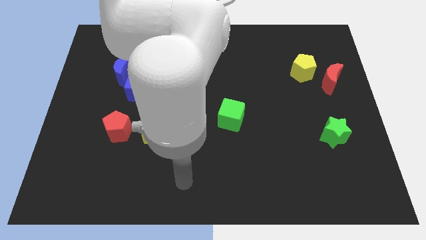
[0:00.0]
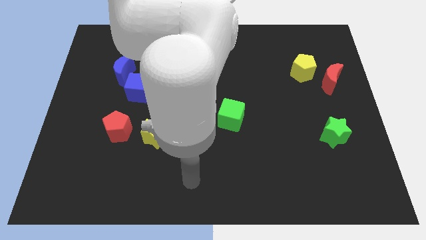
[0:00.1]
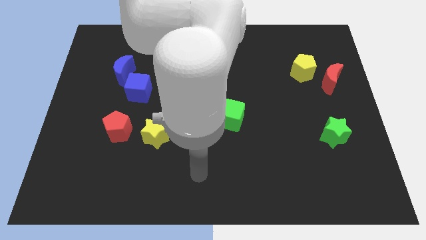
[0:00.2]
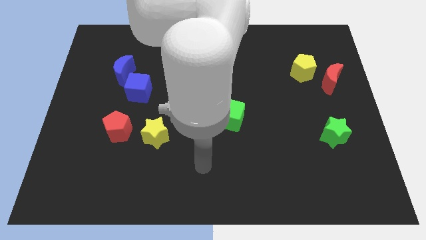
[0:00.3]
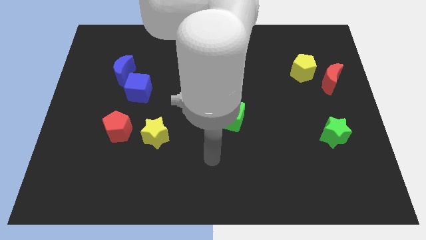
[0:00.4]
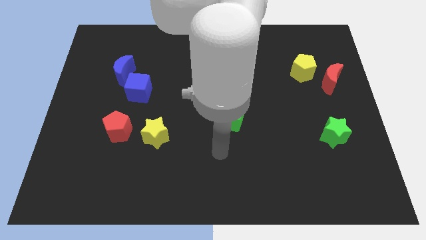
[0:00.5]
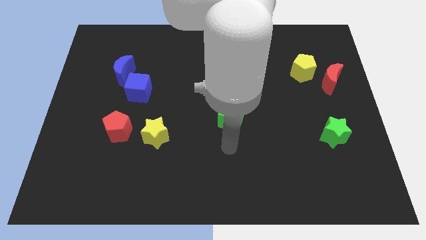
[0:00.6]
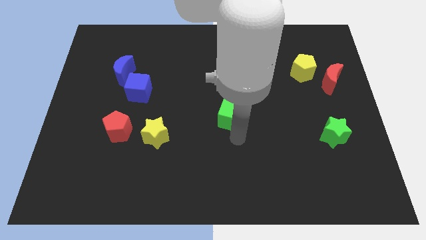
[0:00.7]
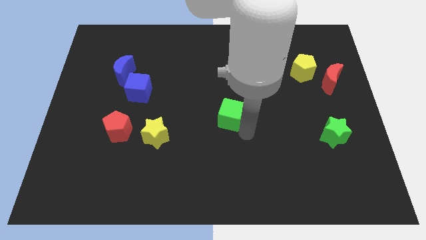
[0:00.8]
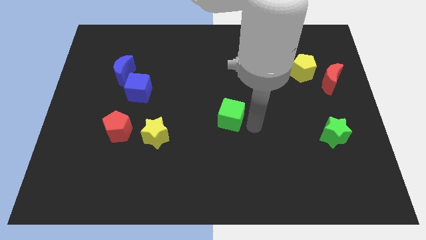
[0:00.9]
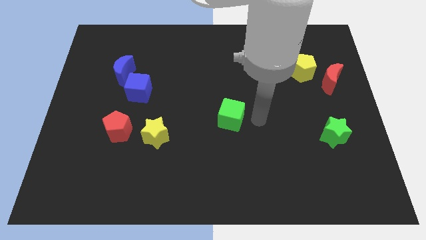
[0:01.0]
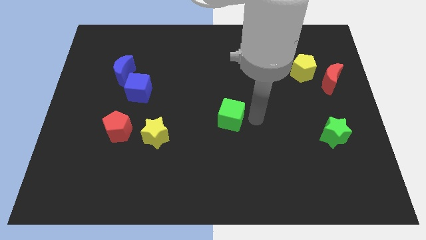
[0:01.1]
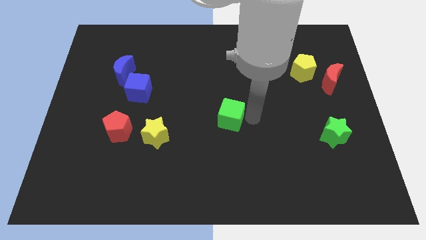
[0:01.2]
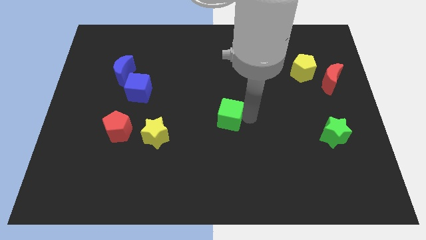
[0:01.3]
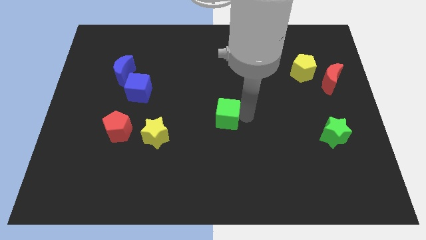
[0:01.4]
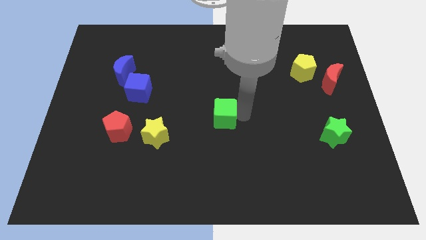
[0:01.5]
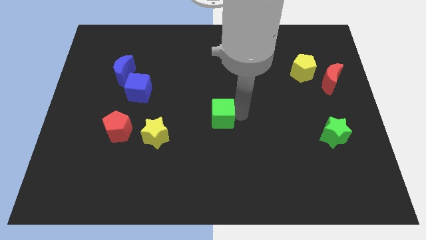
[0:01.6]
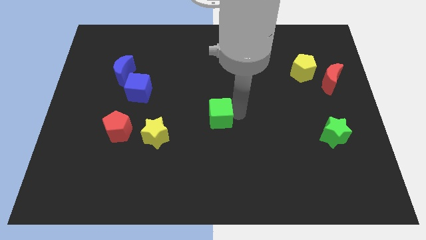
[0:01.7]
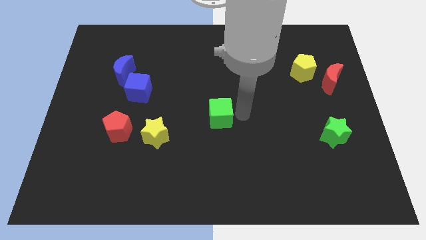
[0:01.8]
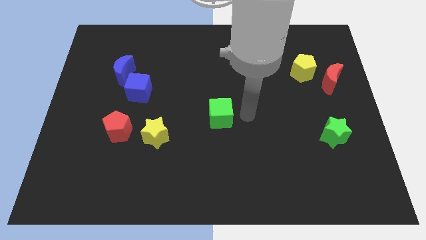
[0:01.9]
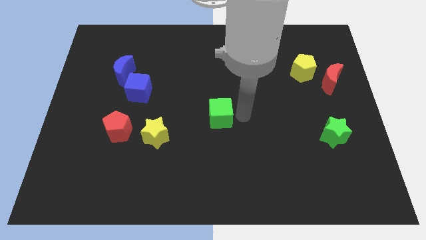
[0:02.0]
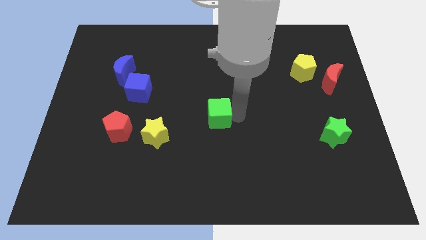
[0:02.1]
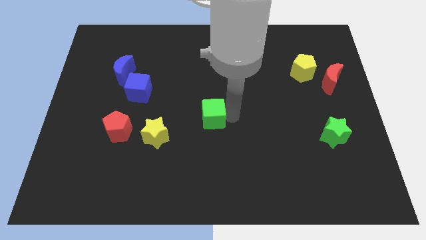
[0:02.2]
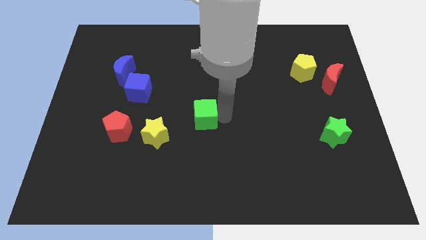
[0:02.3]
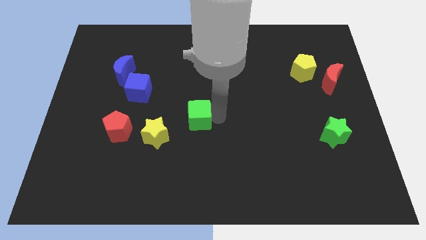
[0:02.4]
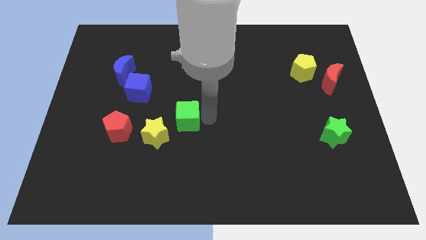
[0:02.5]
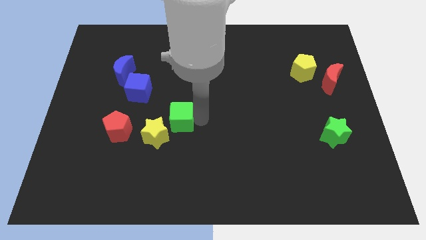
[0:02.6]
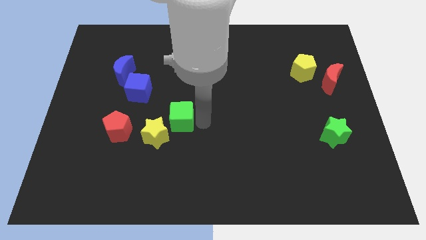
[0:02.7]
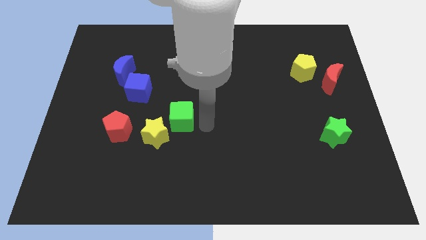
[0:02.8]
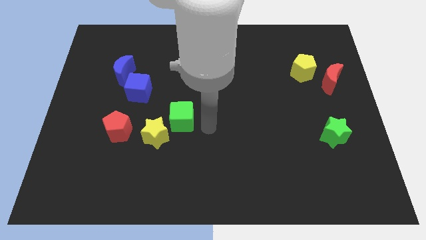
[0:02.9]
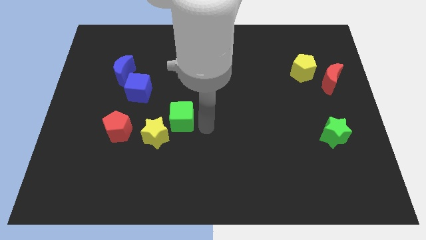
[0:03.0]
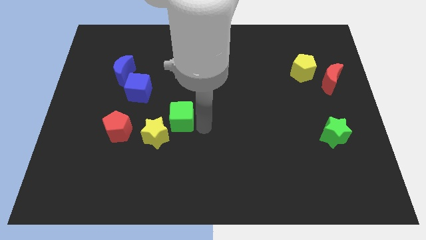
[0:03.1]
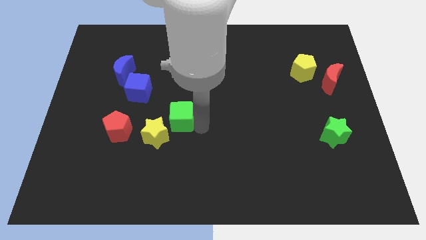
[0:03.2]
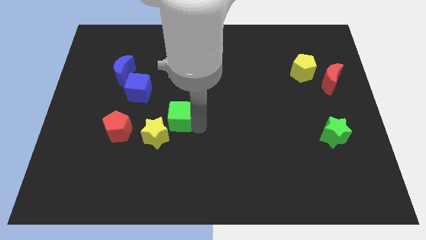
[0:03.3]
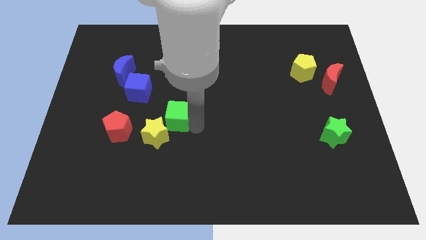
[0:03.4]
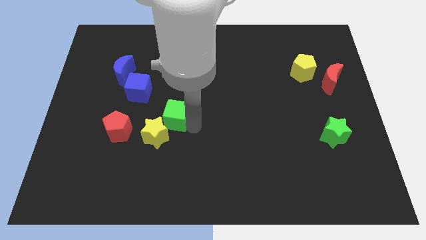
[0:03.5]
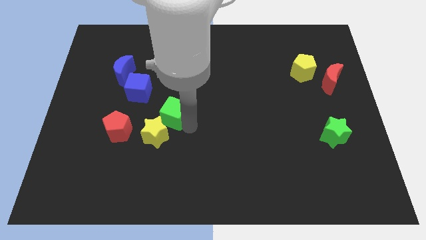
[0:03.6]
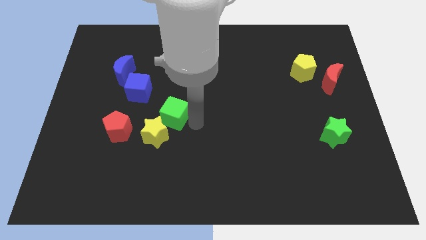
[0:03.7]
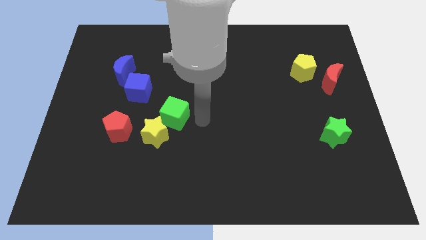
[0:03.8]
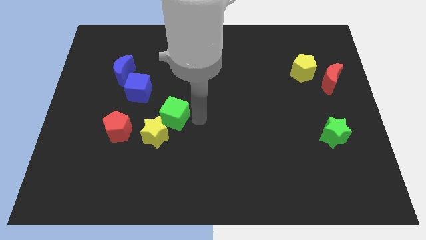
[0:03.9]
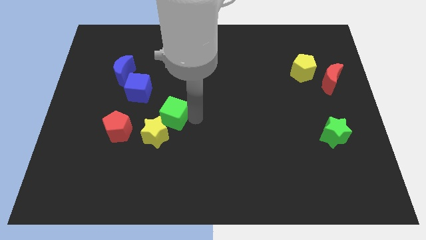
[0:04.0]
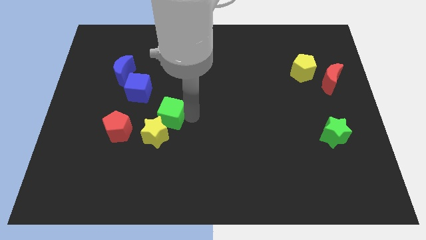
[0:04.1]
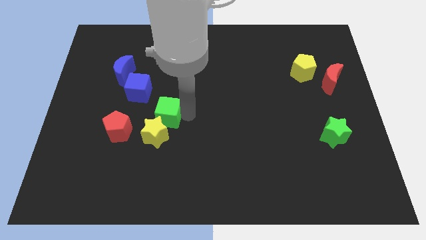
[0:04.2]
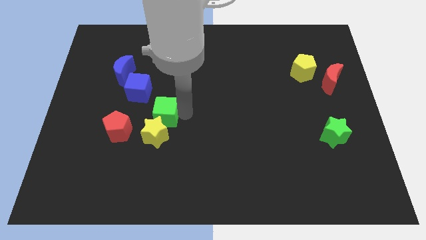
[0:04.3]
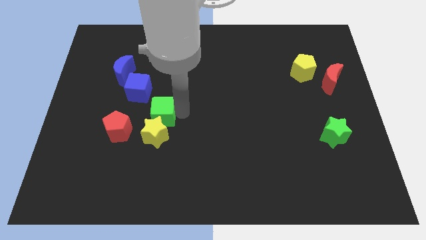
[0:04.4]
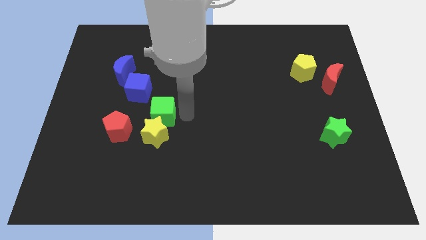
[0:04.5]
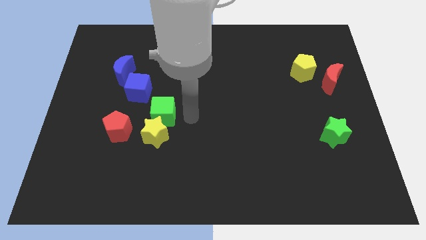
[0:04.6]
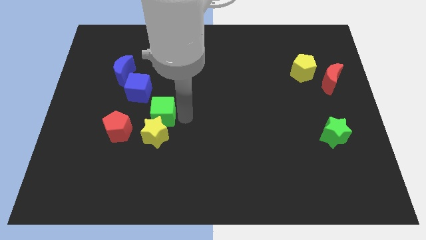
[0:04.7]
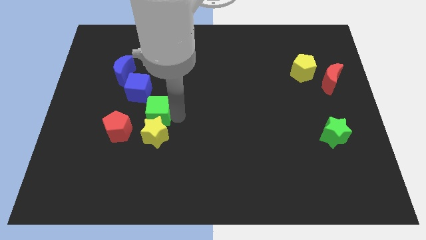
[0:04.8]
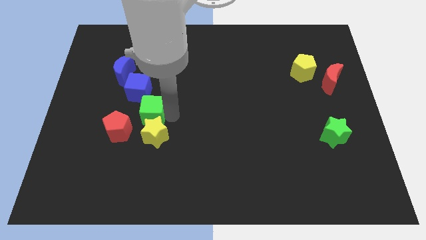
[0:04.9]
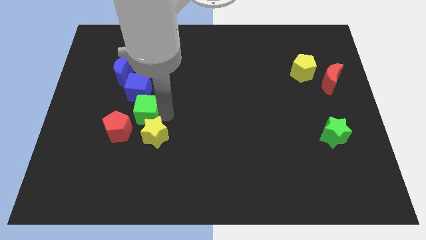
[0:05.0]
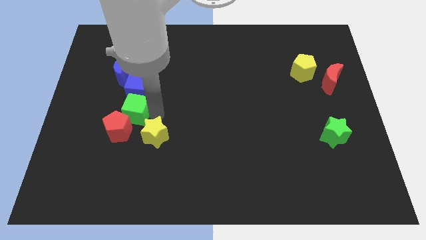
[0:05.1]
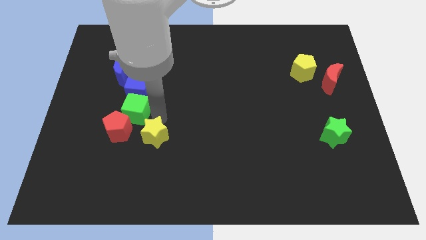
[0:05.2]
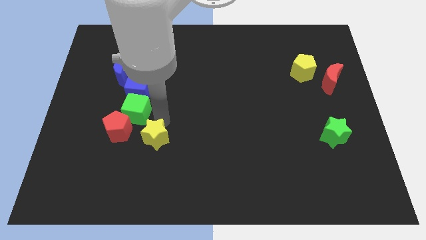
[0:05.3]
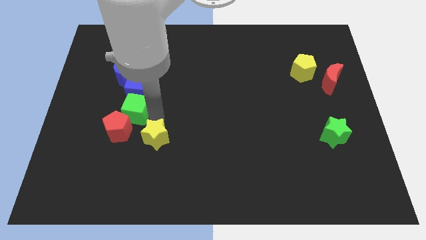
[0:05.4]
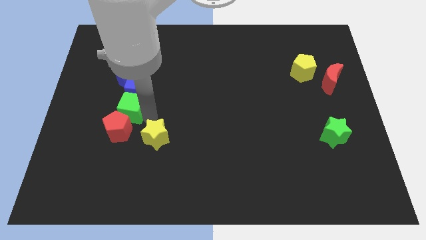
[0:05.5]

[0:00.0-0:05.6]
move the green cube below the blue moon
